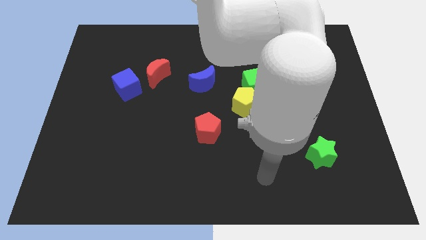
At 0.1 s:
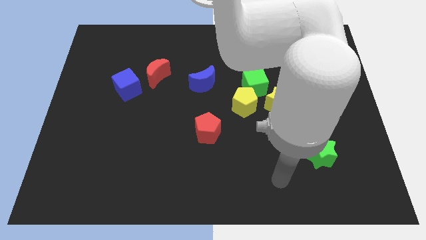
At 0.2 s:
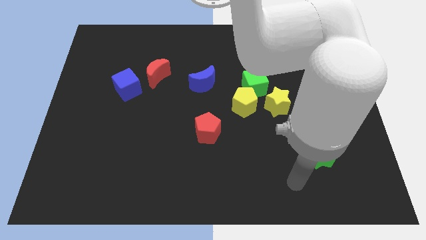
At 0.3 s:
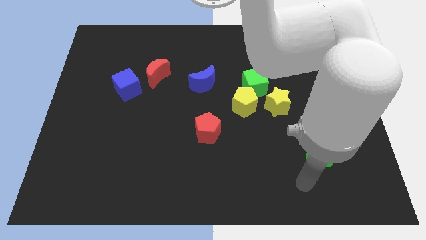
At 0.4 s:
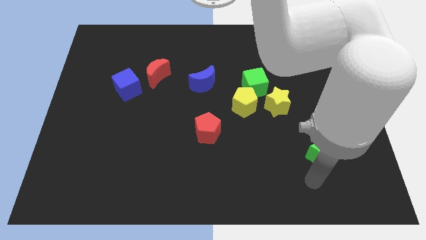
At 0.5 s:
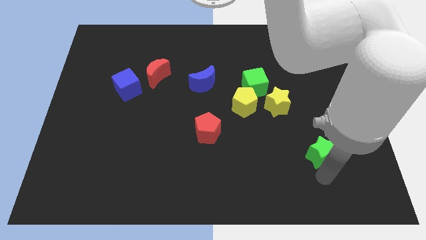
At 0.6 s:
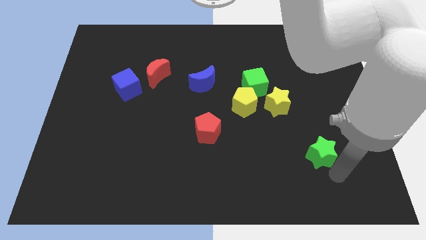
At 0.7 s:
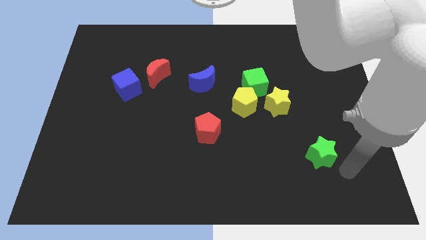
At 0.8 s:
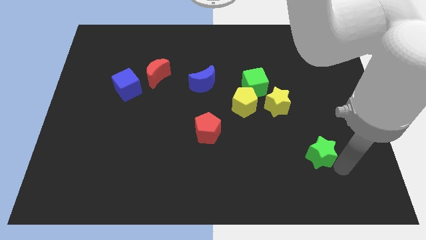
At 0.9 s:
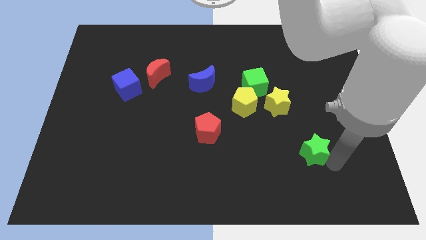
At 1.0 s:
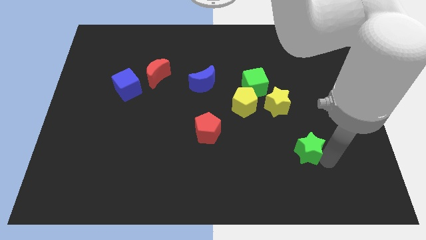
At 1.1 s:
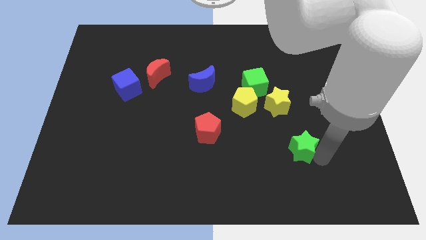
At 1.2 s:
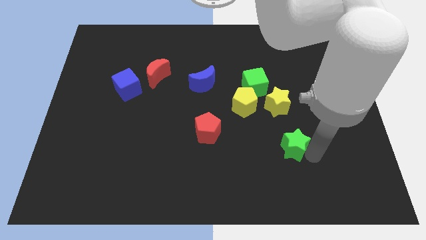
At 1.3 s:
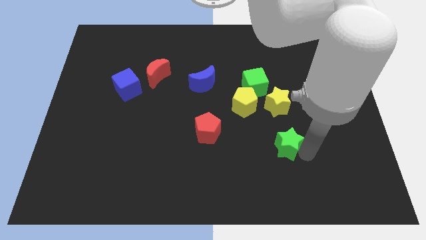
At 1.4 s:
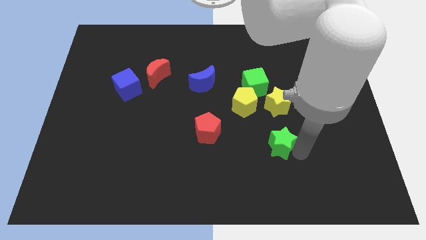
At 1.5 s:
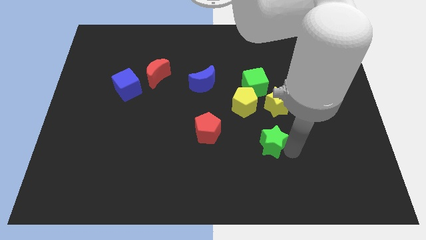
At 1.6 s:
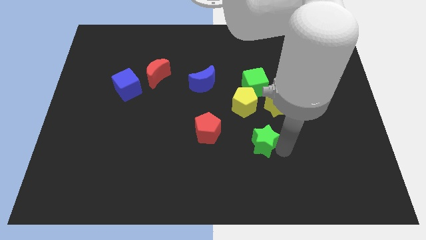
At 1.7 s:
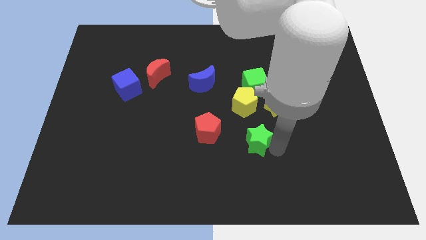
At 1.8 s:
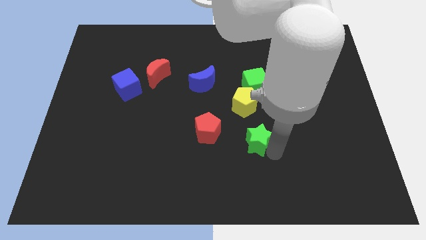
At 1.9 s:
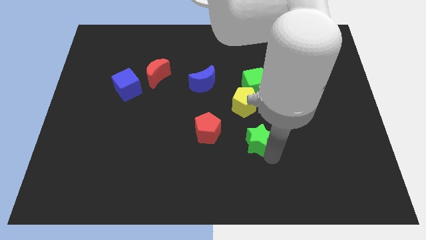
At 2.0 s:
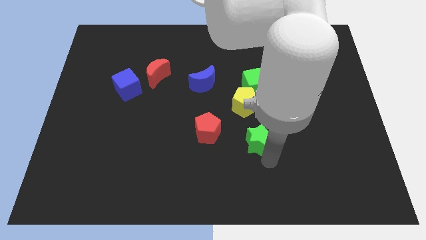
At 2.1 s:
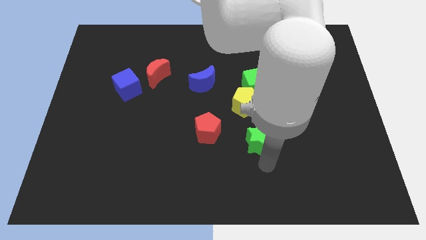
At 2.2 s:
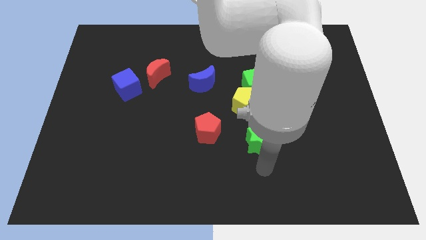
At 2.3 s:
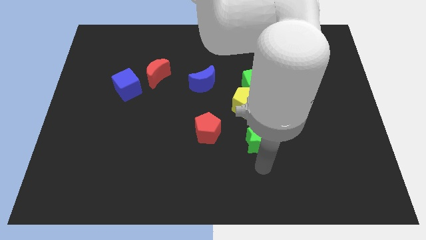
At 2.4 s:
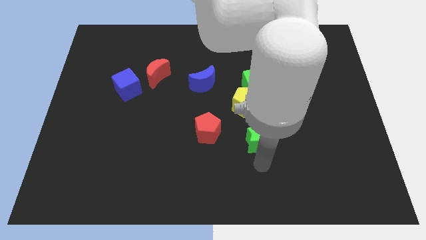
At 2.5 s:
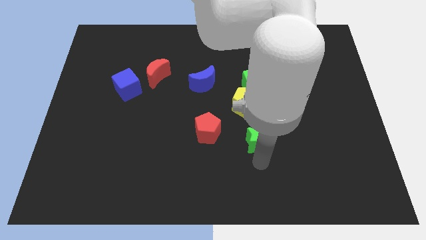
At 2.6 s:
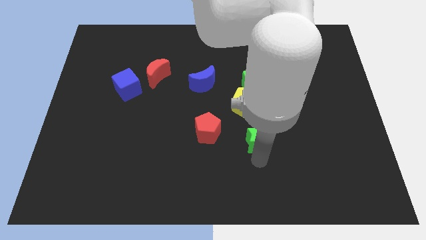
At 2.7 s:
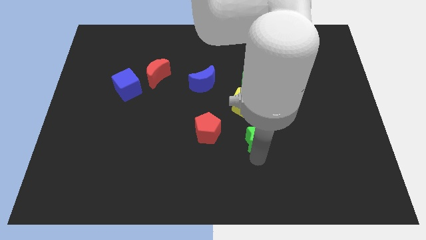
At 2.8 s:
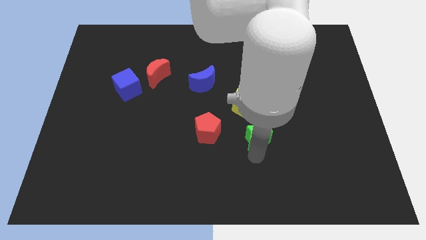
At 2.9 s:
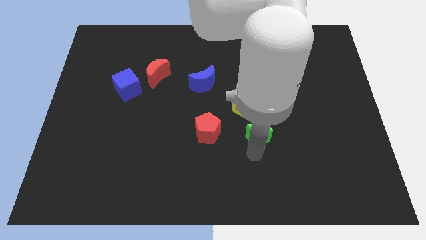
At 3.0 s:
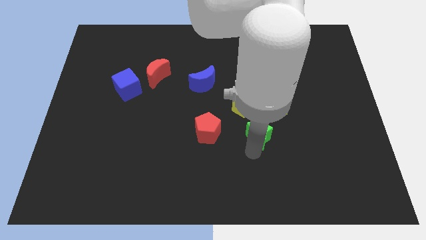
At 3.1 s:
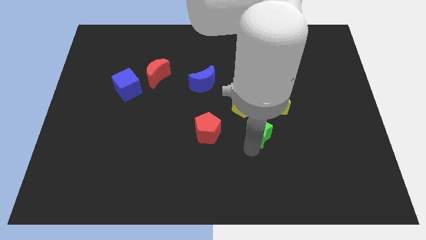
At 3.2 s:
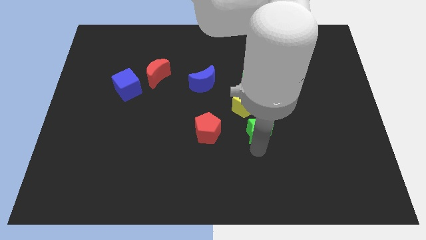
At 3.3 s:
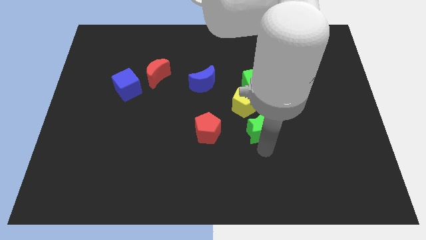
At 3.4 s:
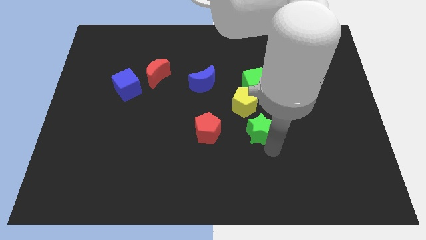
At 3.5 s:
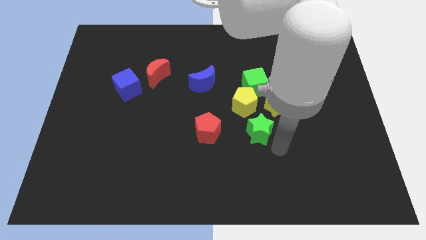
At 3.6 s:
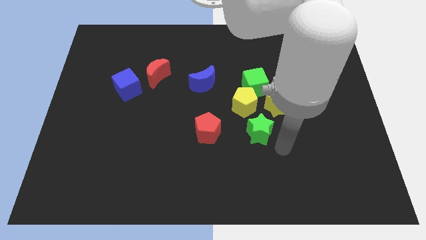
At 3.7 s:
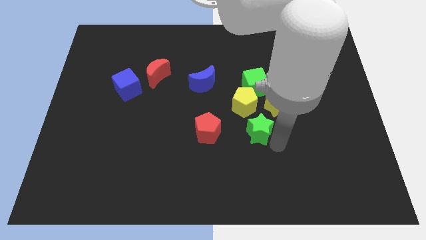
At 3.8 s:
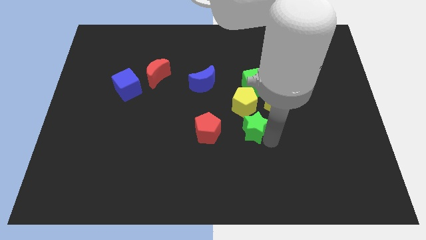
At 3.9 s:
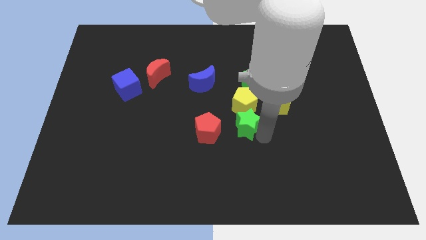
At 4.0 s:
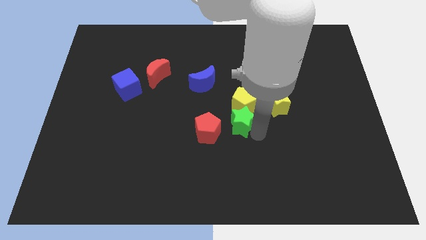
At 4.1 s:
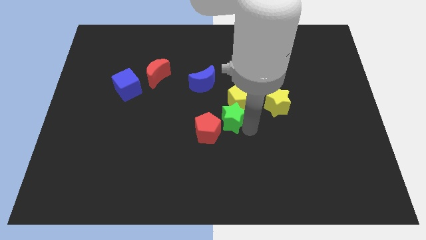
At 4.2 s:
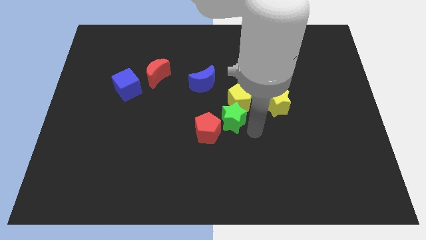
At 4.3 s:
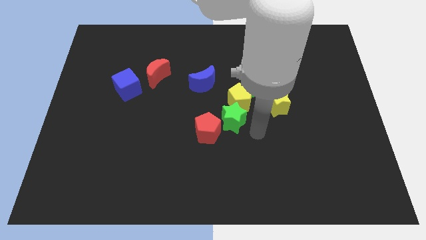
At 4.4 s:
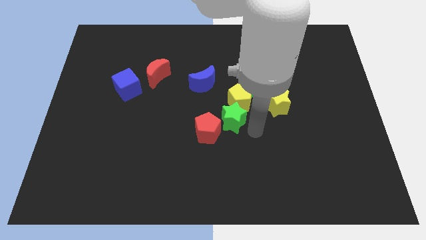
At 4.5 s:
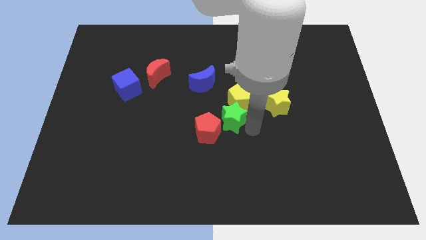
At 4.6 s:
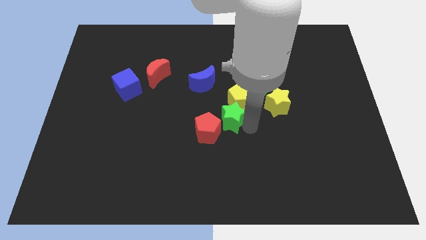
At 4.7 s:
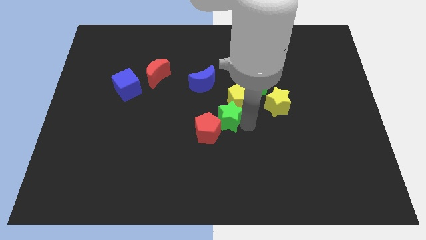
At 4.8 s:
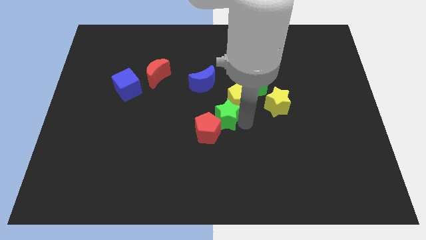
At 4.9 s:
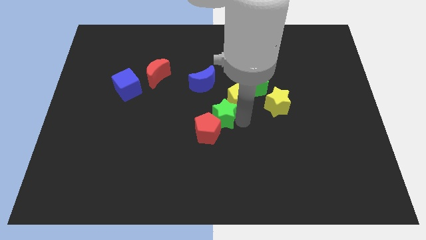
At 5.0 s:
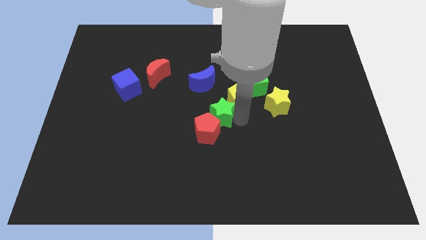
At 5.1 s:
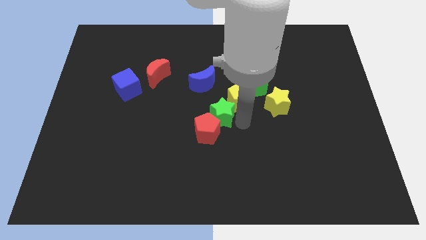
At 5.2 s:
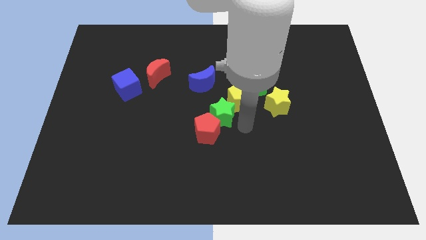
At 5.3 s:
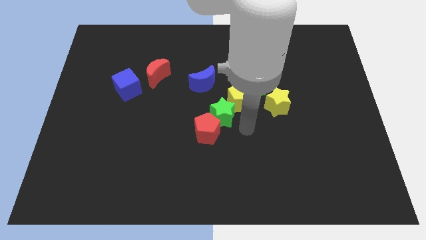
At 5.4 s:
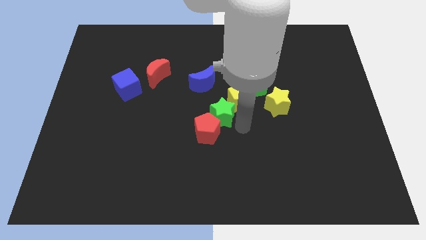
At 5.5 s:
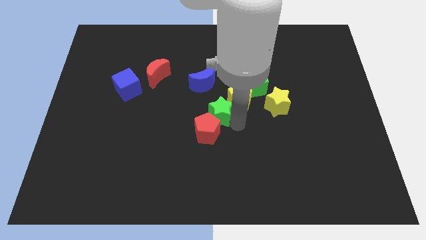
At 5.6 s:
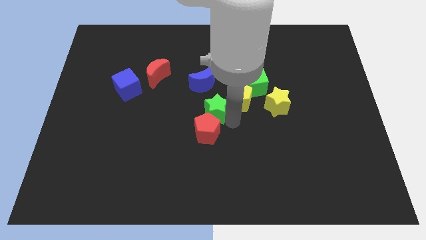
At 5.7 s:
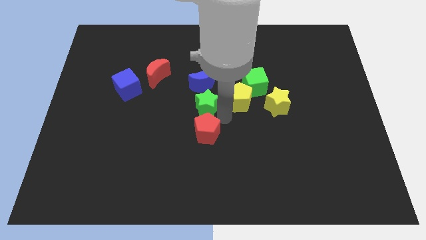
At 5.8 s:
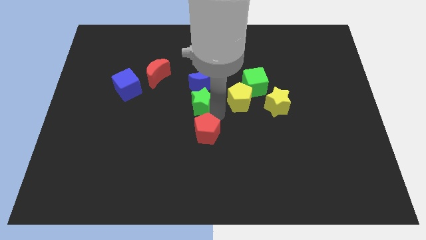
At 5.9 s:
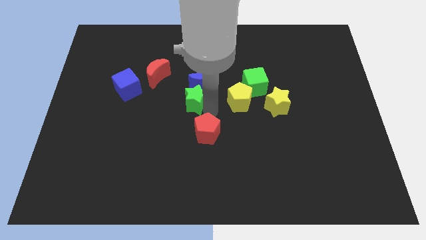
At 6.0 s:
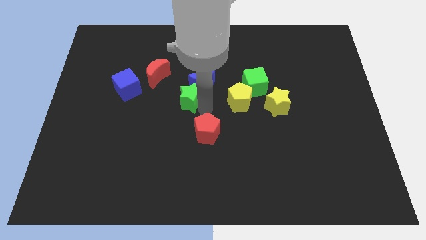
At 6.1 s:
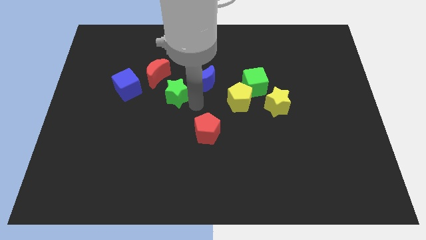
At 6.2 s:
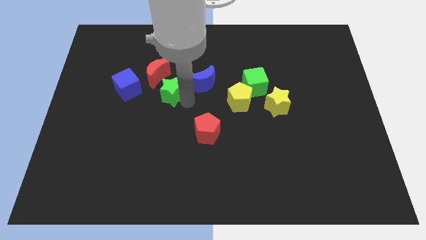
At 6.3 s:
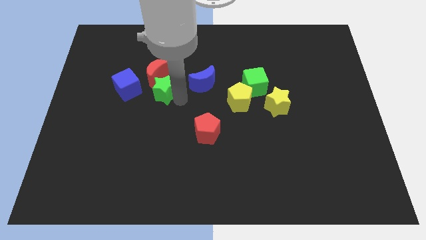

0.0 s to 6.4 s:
move the green star close to the red moon

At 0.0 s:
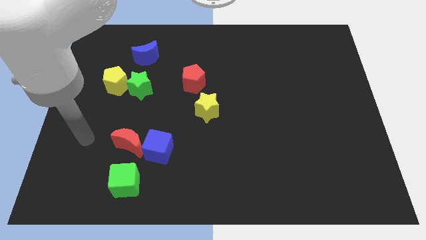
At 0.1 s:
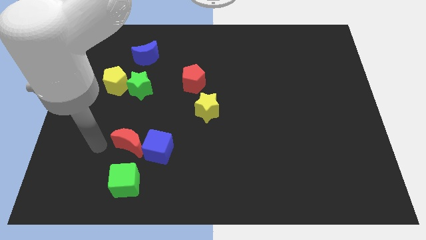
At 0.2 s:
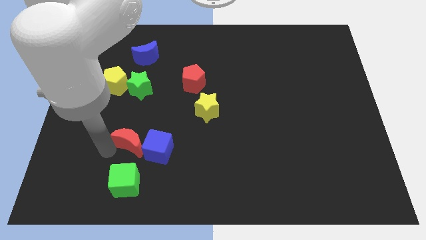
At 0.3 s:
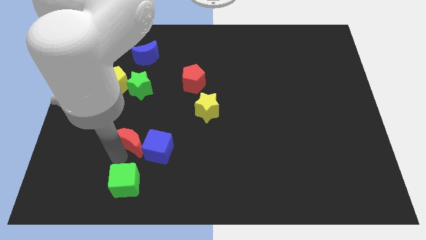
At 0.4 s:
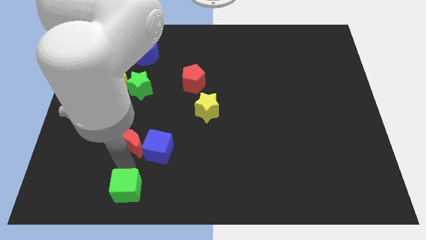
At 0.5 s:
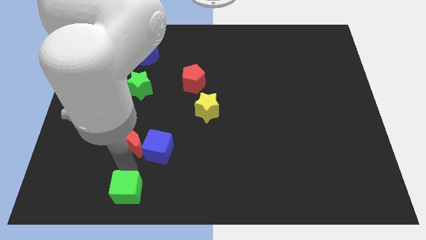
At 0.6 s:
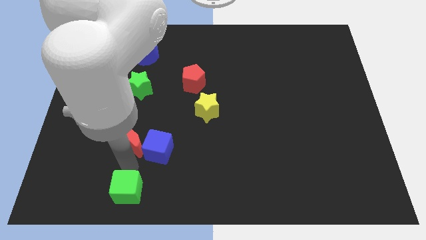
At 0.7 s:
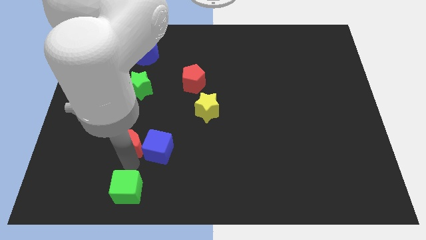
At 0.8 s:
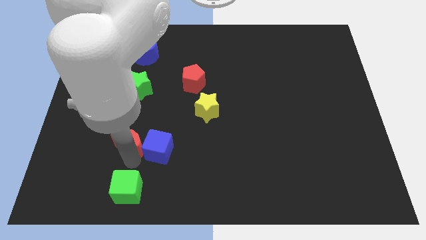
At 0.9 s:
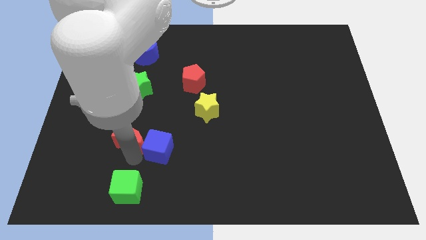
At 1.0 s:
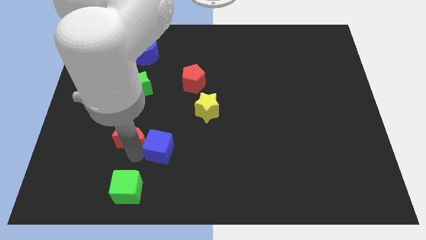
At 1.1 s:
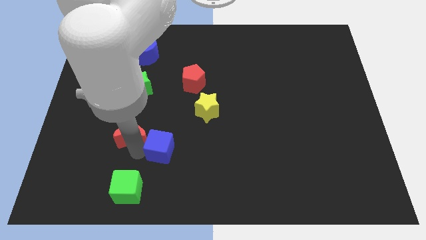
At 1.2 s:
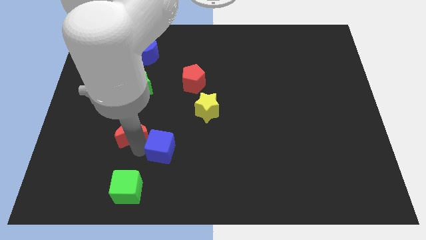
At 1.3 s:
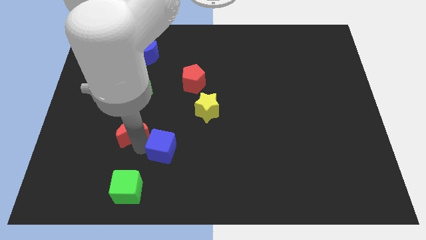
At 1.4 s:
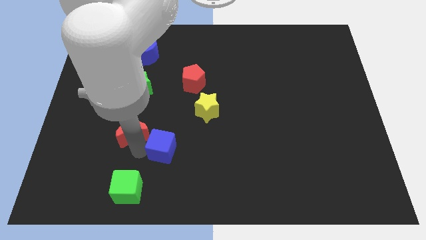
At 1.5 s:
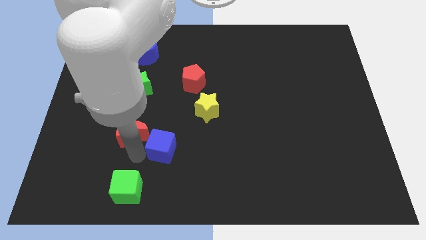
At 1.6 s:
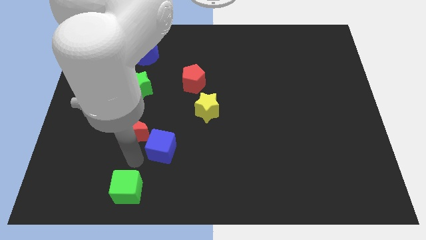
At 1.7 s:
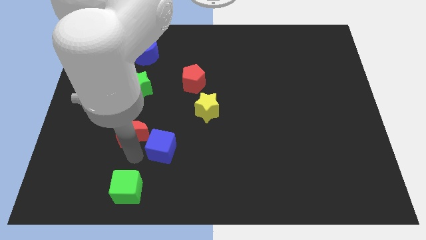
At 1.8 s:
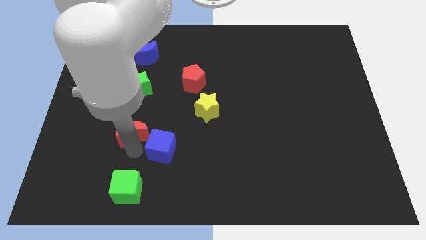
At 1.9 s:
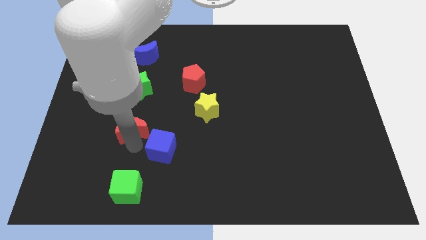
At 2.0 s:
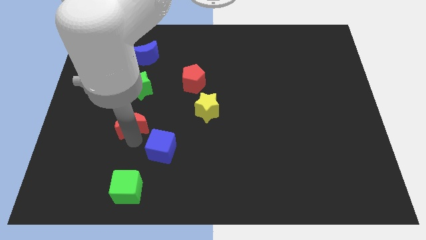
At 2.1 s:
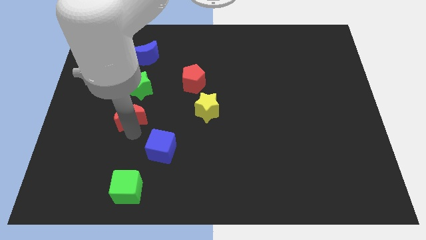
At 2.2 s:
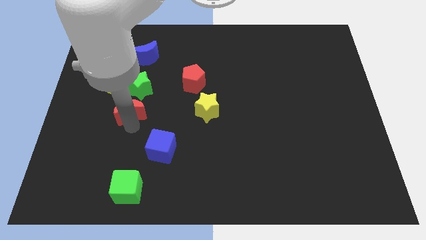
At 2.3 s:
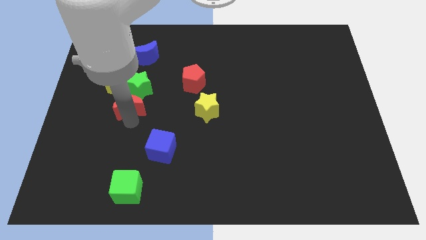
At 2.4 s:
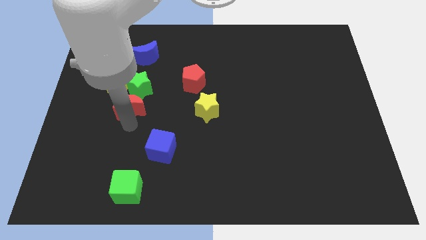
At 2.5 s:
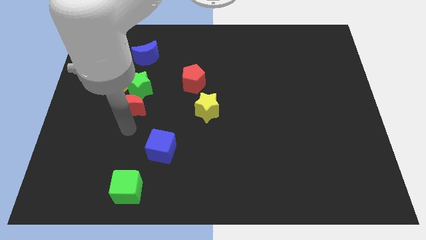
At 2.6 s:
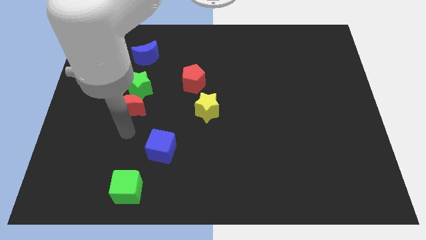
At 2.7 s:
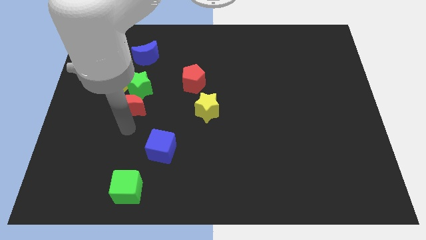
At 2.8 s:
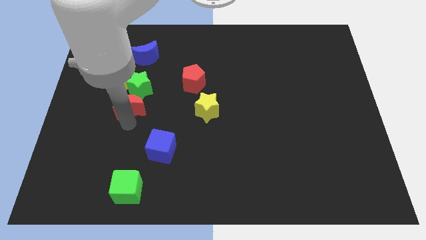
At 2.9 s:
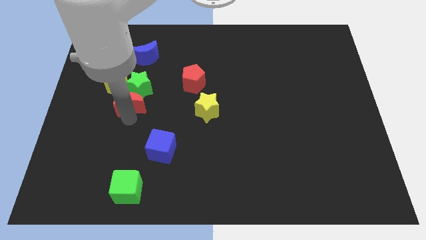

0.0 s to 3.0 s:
slide the red moon close to the green star
